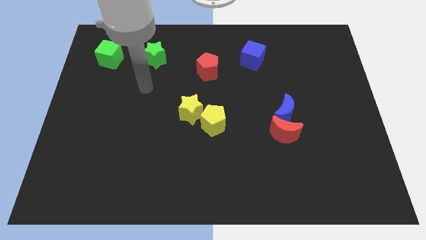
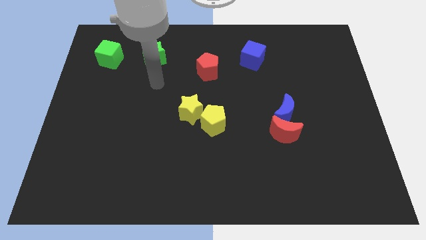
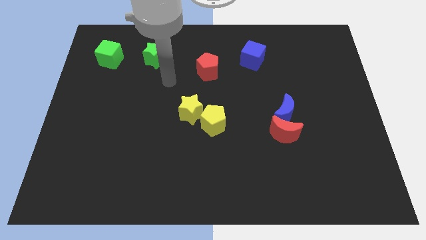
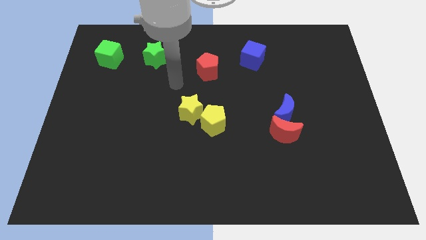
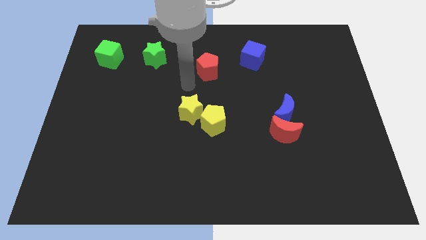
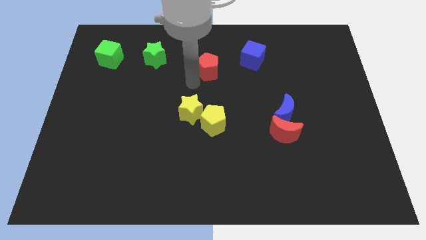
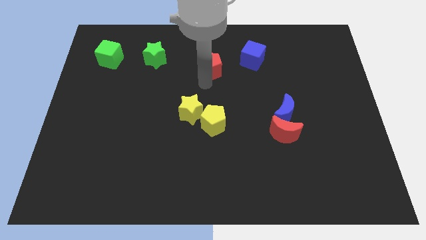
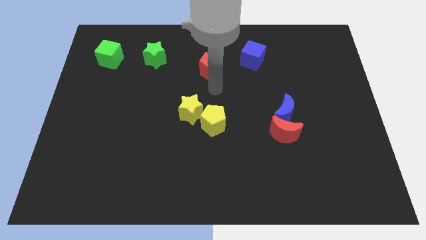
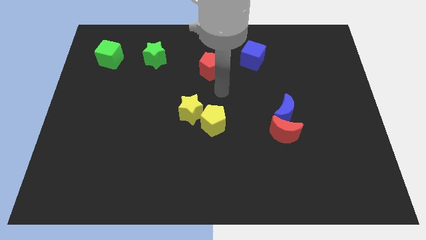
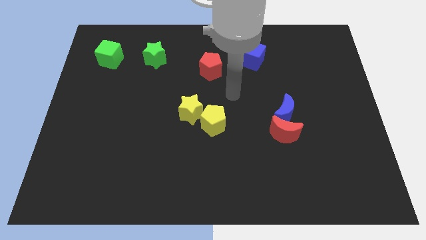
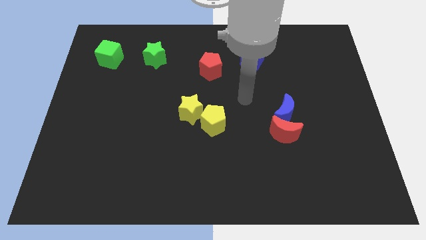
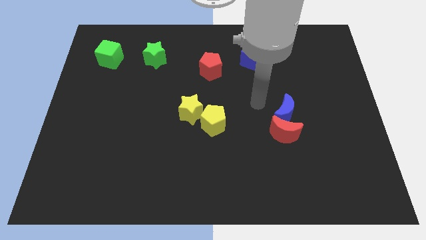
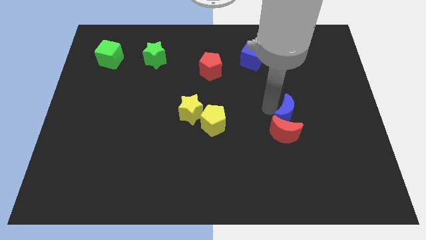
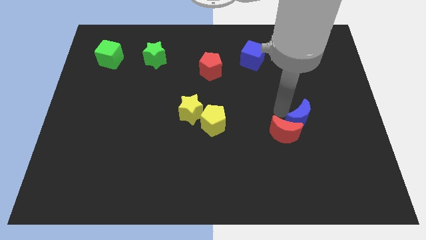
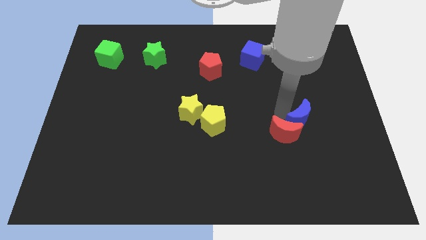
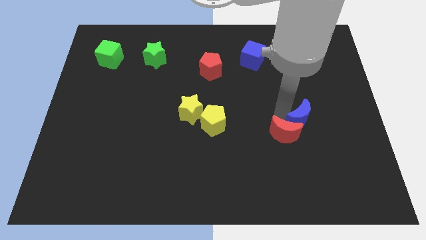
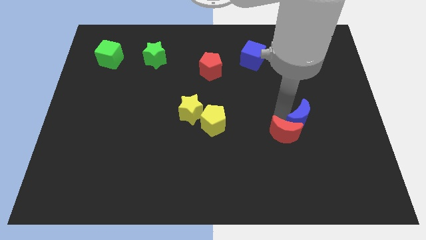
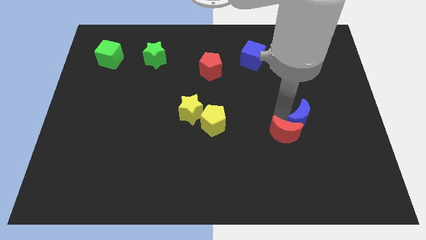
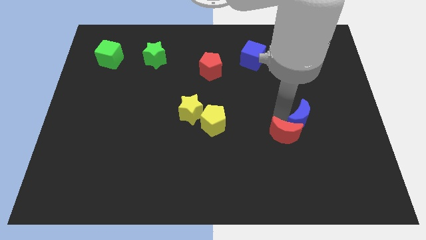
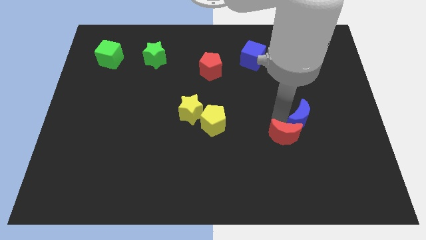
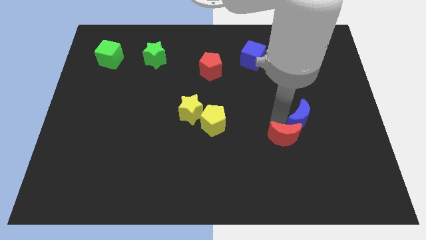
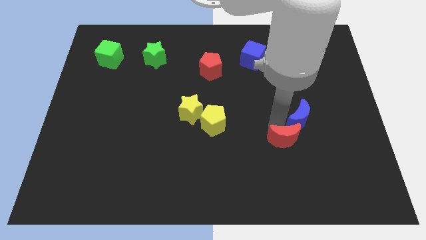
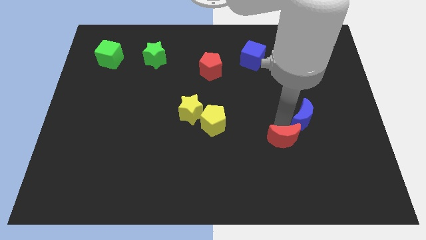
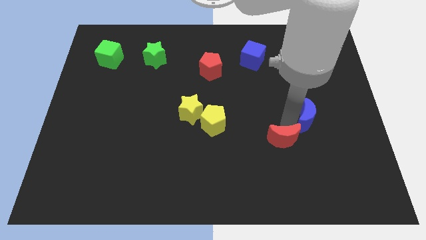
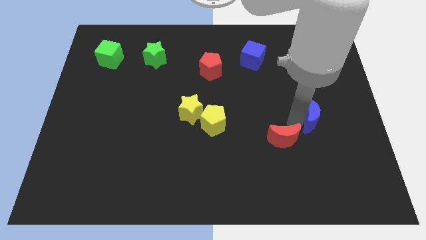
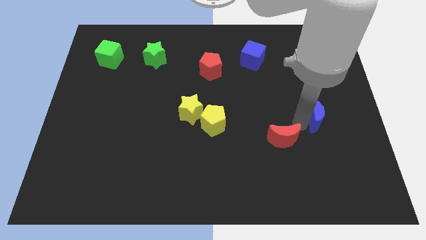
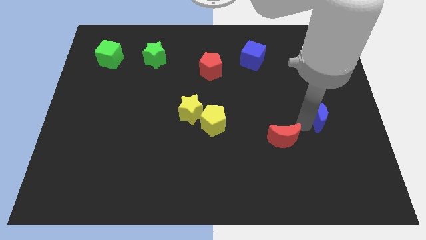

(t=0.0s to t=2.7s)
separate the red moon from the blue moon

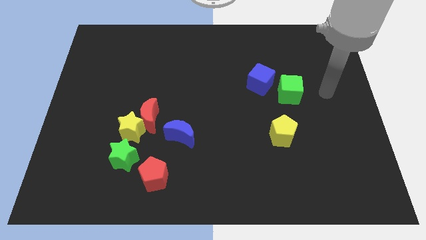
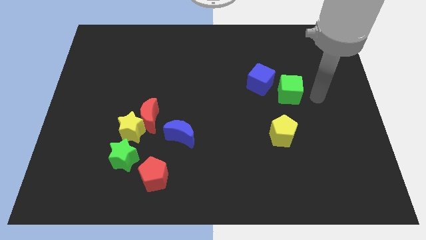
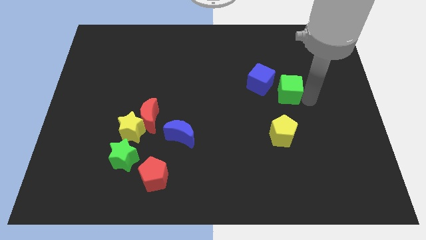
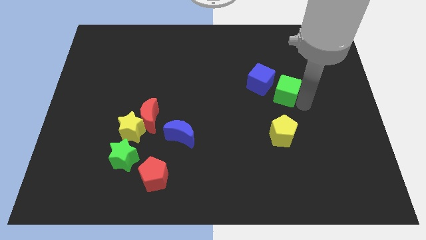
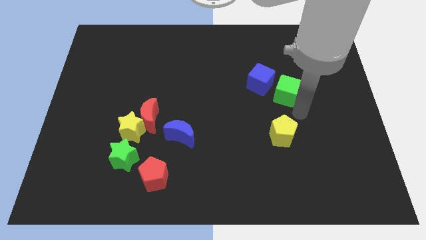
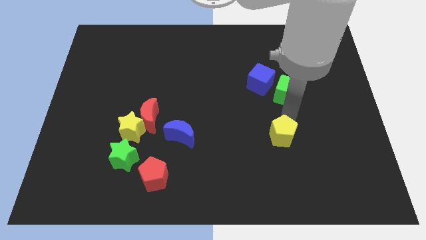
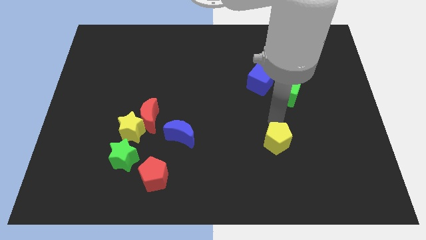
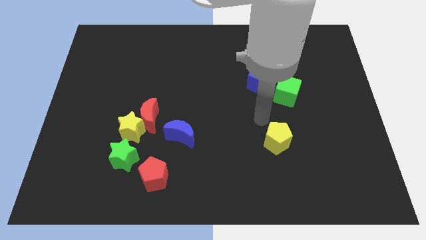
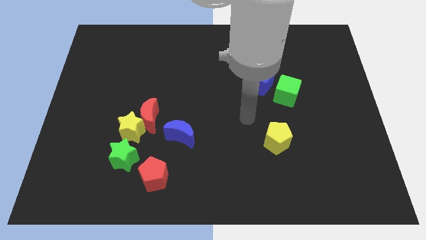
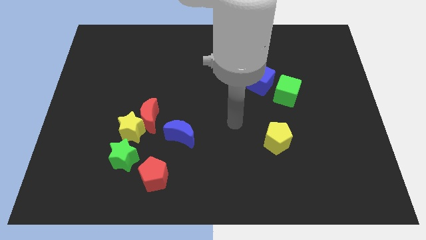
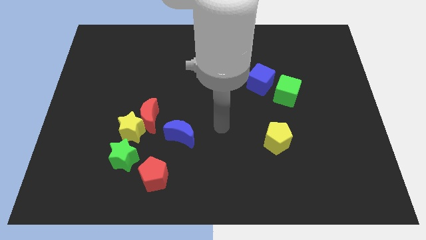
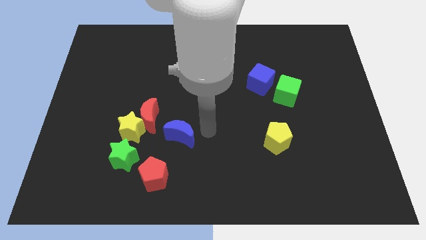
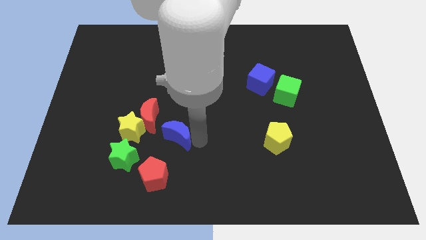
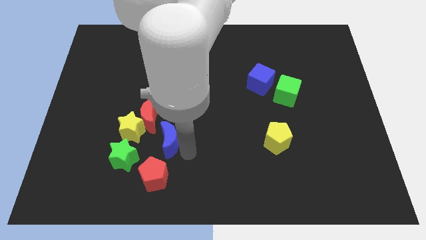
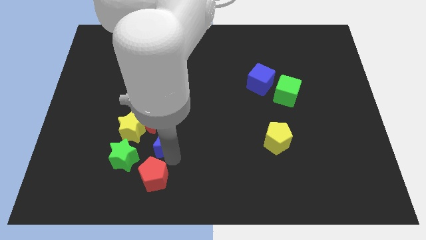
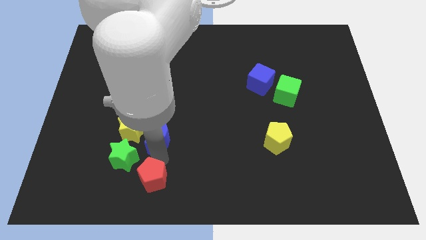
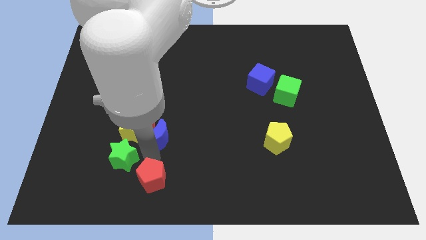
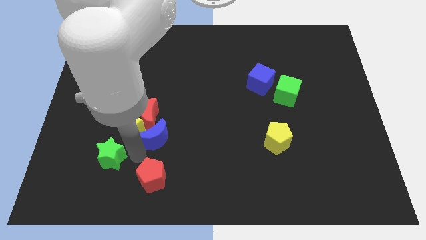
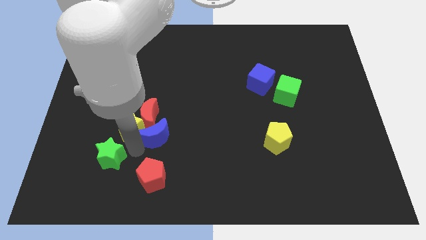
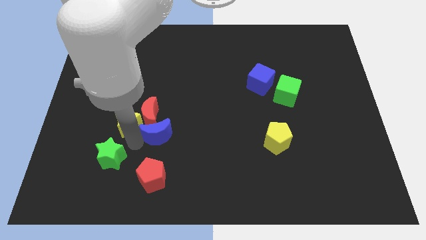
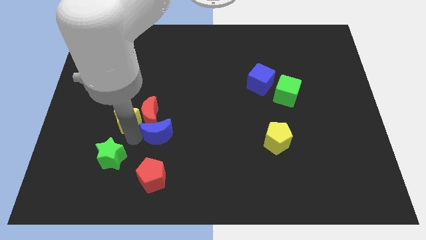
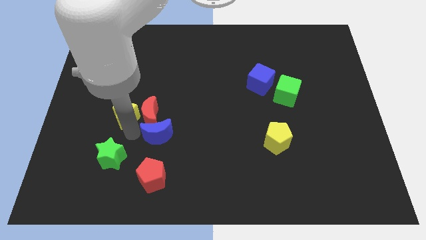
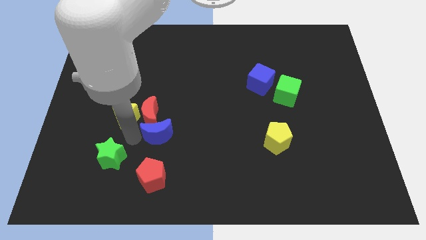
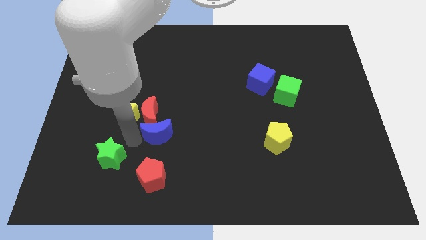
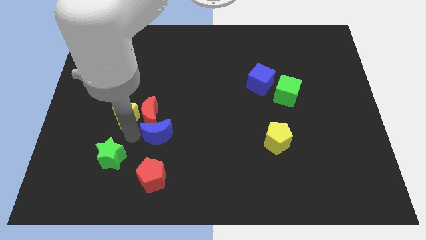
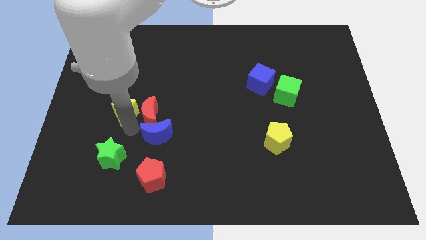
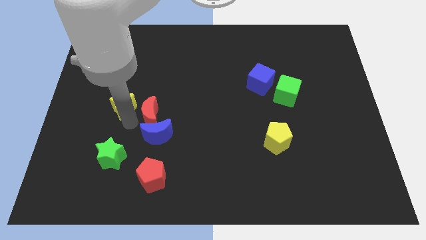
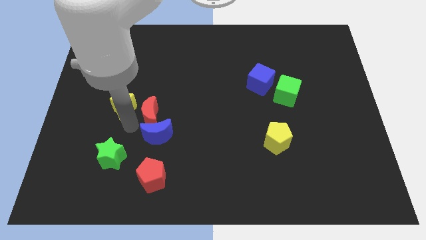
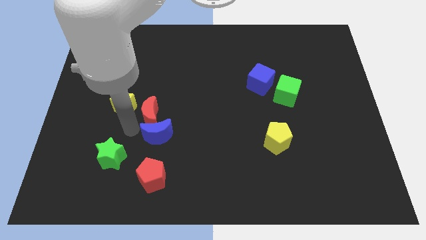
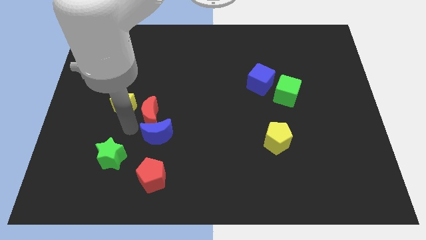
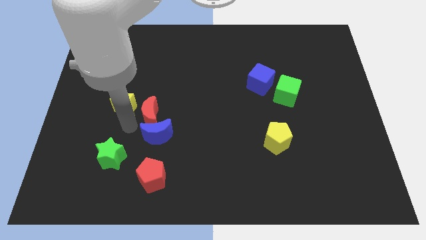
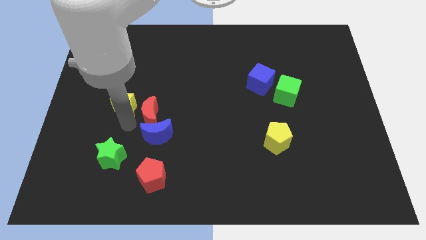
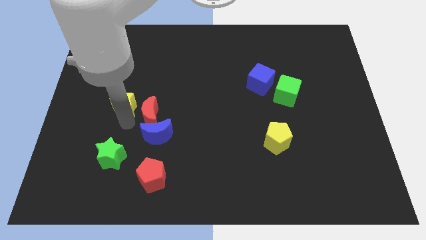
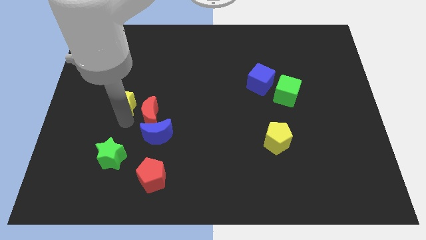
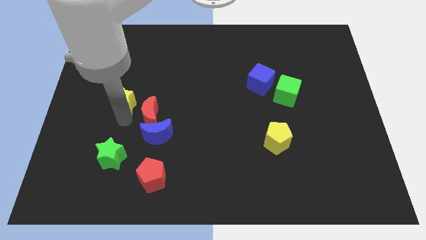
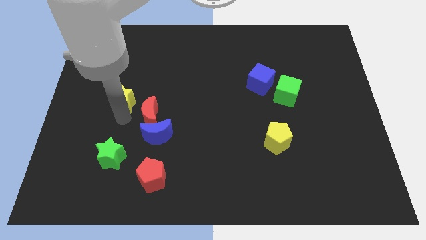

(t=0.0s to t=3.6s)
separate the yellow star from the red moon and green star

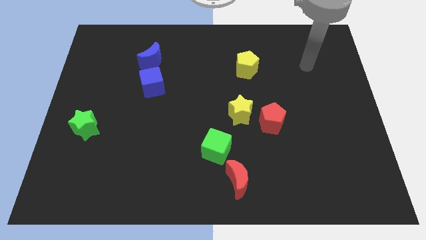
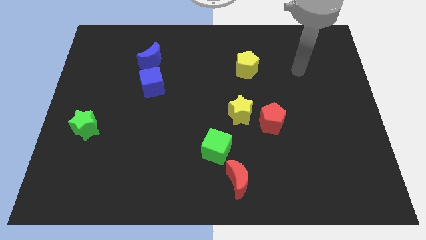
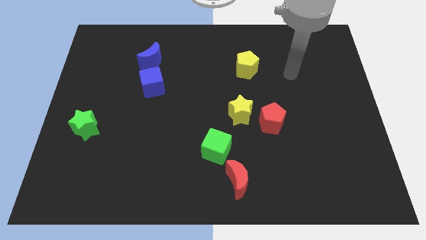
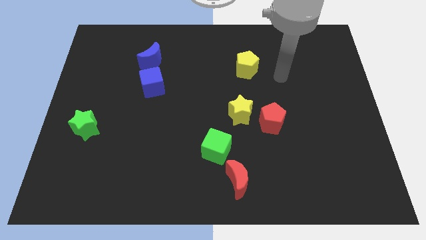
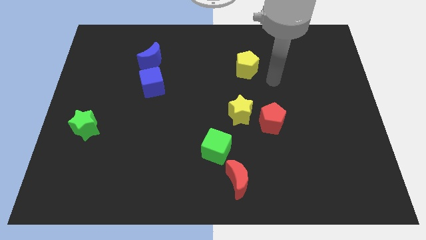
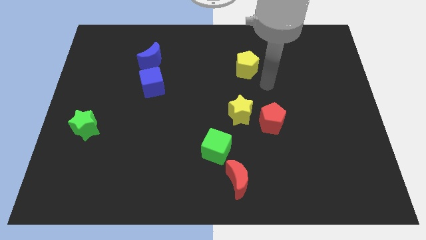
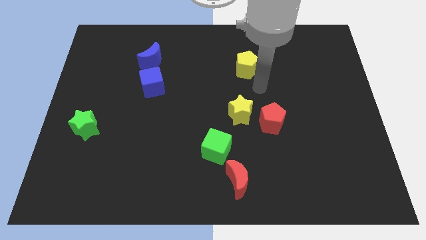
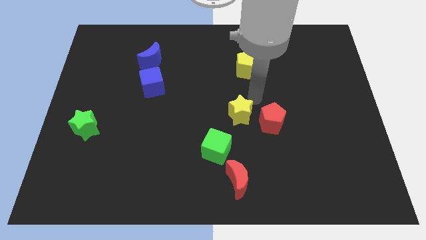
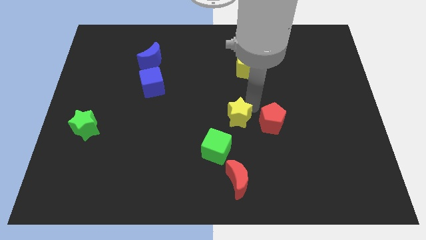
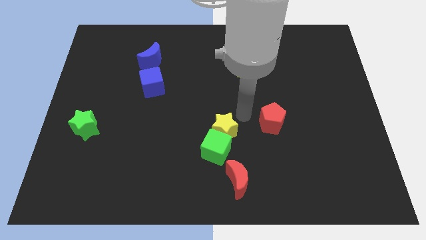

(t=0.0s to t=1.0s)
separate the red pentagon from the yellow star

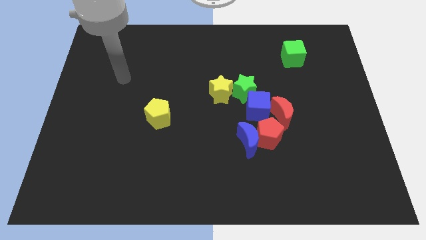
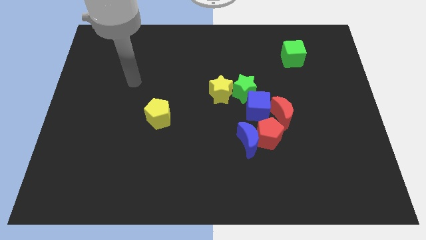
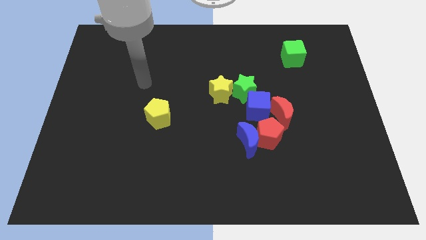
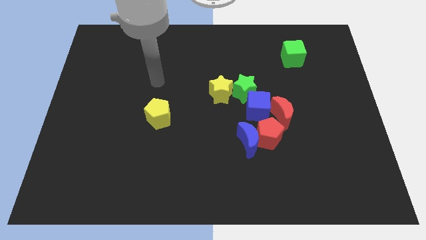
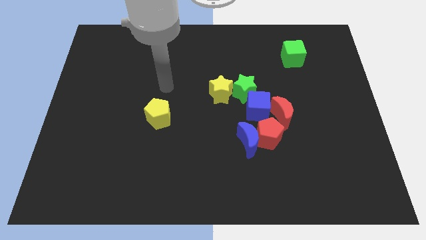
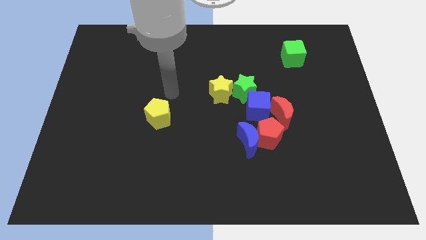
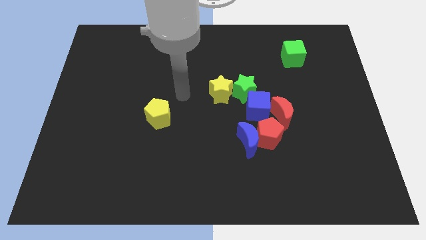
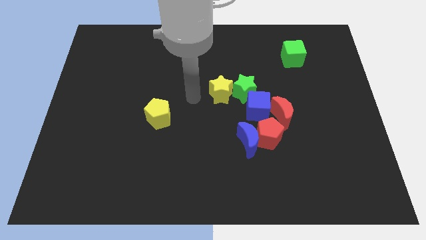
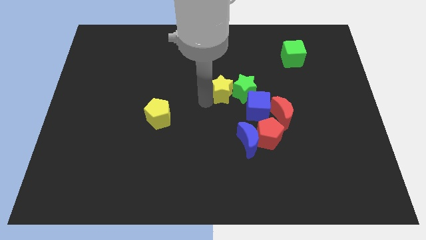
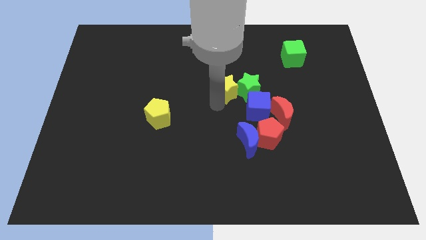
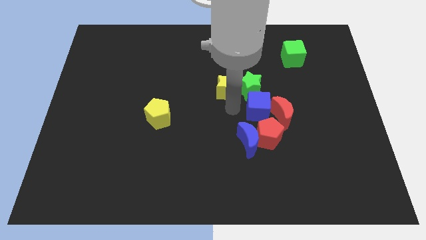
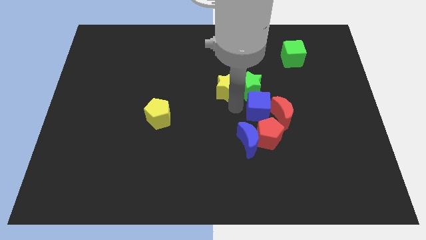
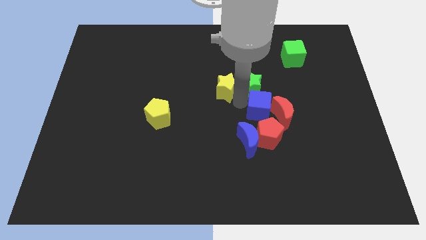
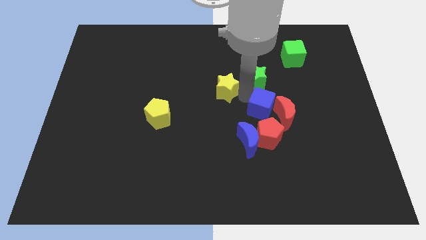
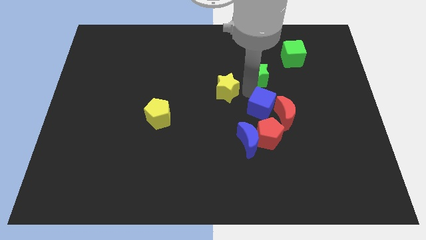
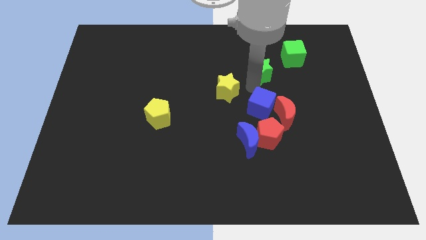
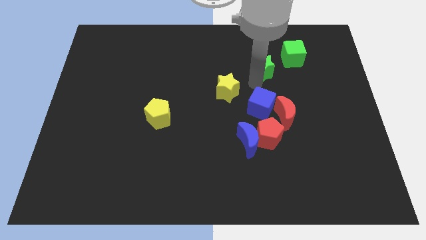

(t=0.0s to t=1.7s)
pull the green star apart from the blue cube and yellow star

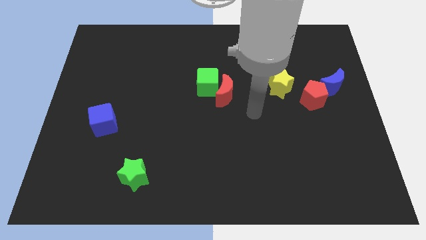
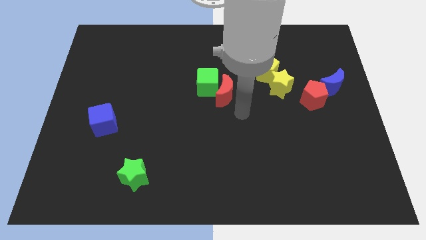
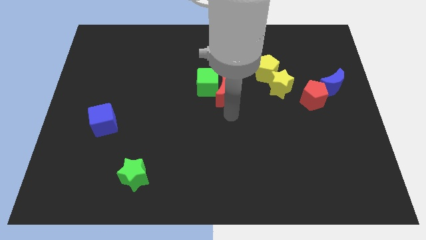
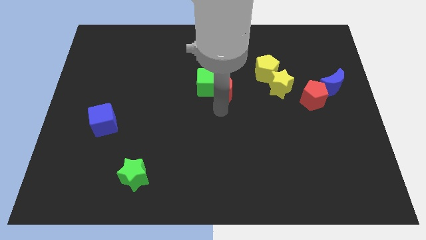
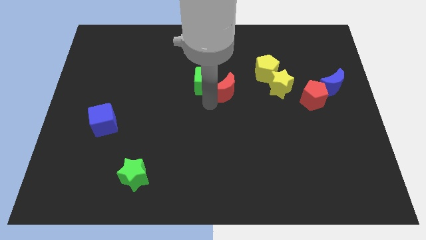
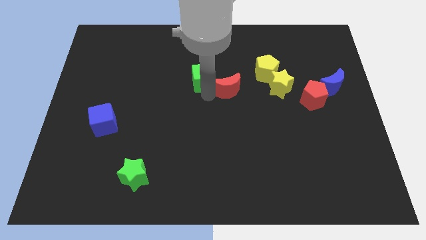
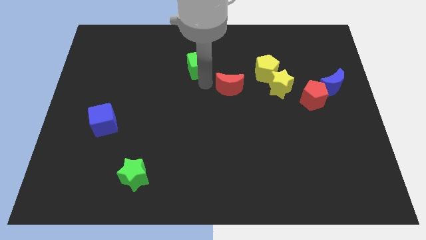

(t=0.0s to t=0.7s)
separate the red moon from the green cube
